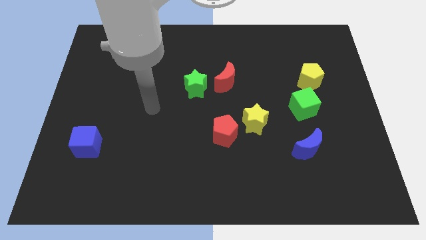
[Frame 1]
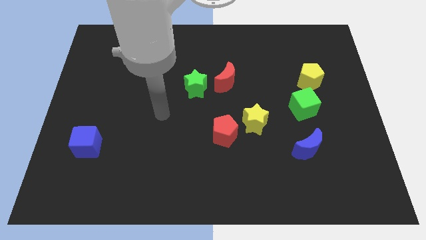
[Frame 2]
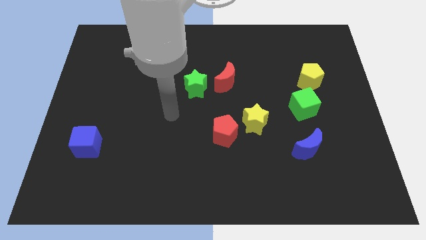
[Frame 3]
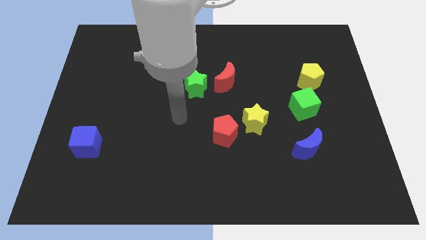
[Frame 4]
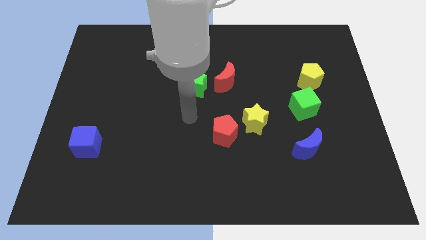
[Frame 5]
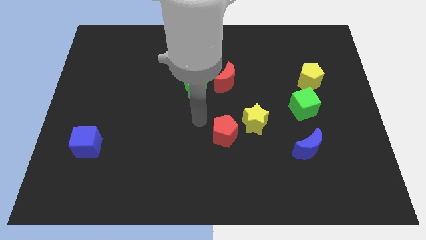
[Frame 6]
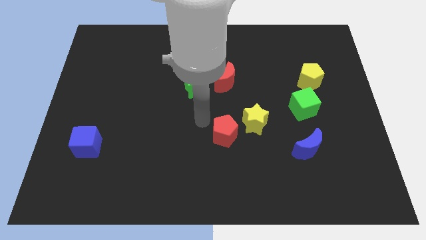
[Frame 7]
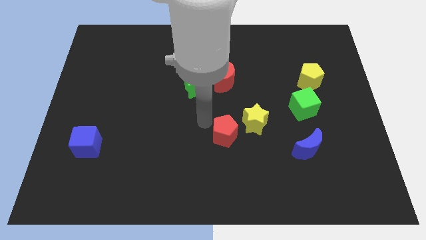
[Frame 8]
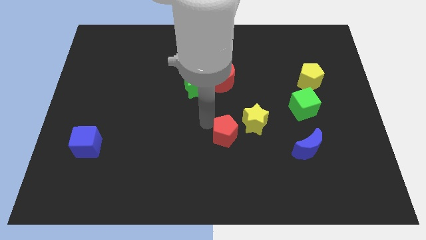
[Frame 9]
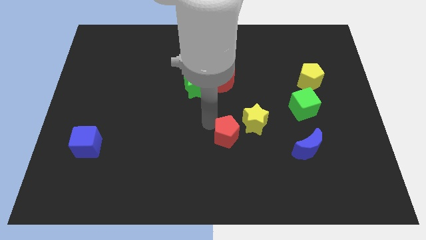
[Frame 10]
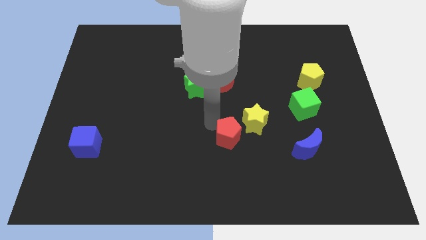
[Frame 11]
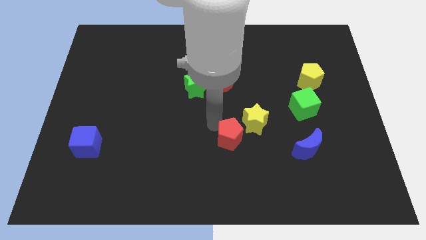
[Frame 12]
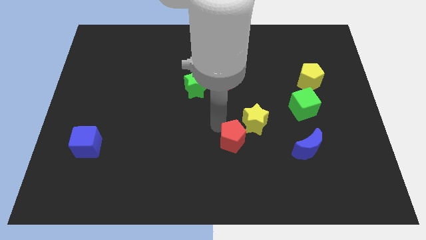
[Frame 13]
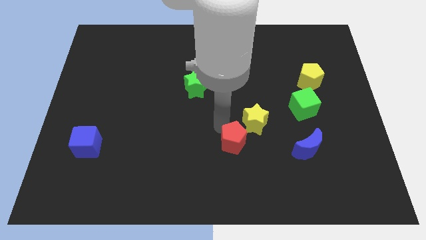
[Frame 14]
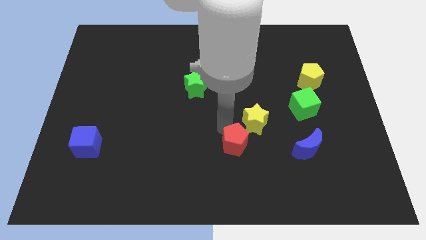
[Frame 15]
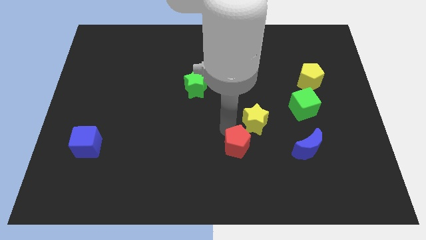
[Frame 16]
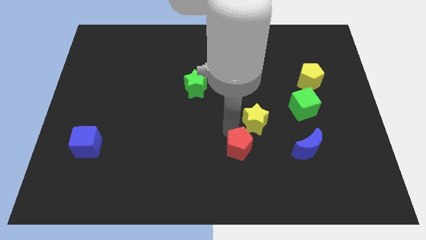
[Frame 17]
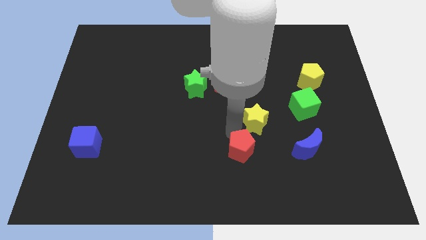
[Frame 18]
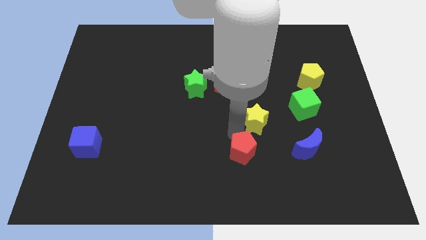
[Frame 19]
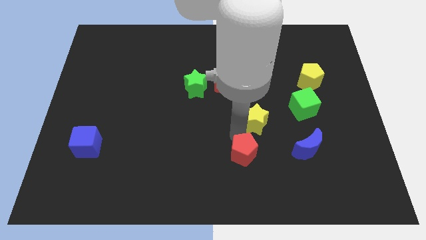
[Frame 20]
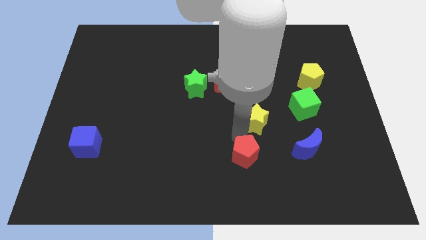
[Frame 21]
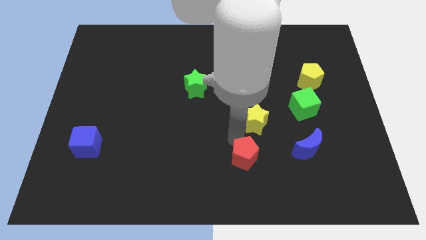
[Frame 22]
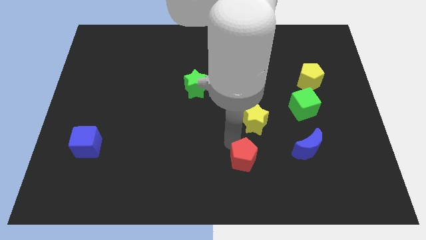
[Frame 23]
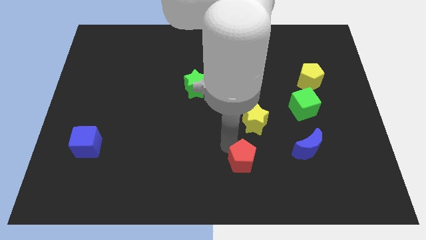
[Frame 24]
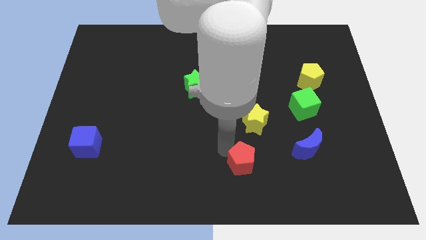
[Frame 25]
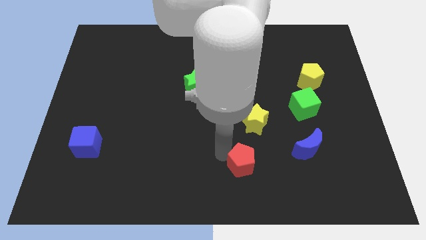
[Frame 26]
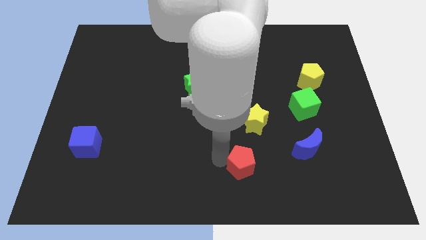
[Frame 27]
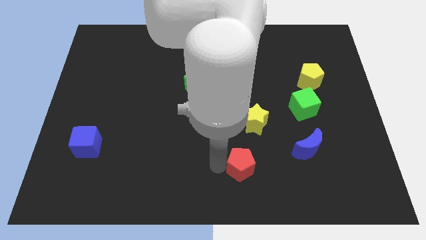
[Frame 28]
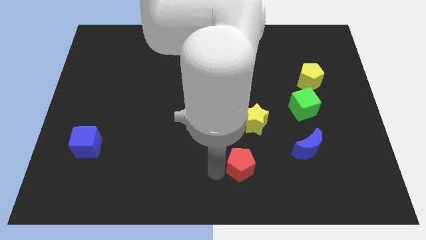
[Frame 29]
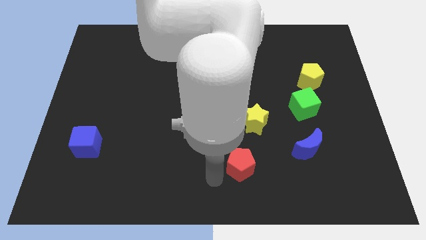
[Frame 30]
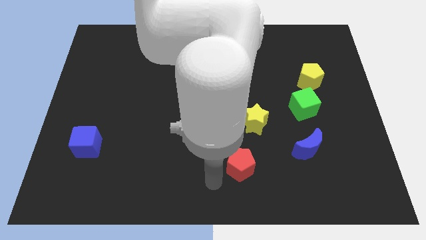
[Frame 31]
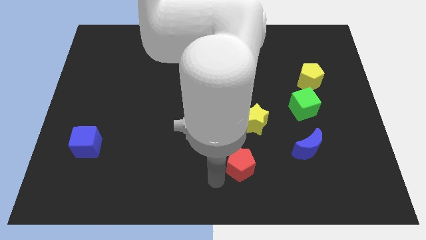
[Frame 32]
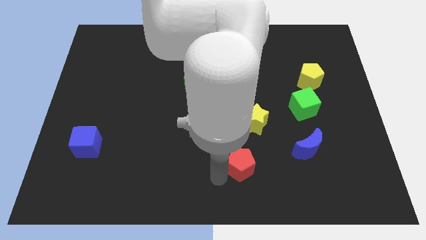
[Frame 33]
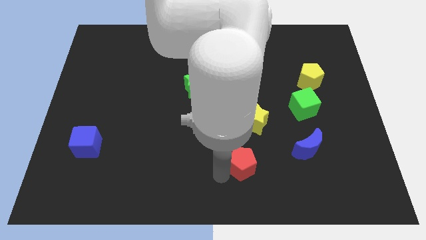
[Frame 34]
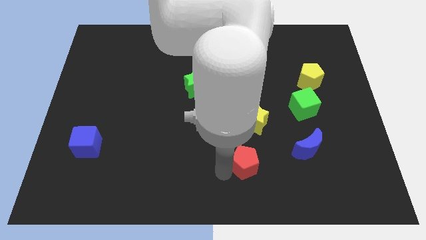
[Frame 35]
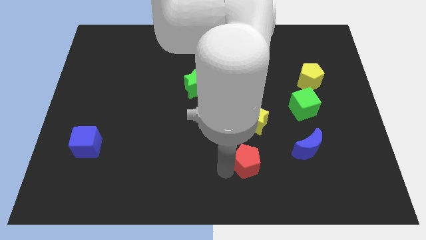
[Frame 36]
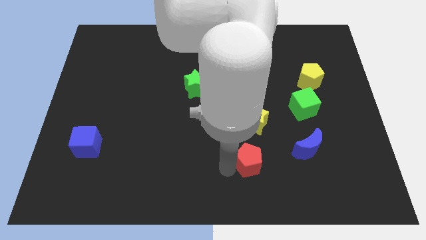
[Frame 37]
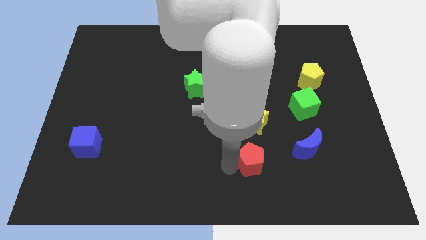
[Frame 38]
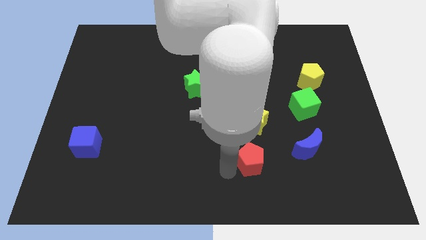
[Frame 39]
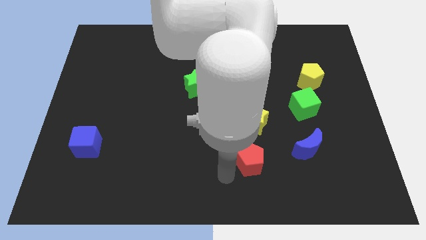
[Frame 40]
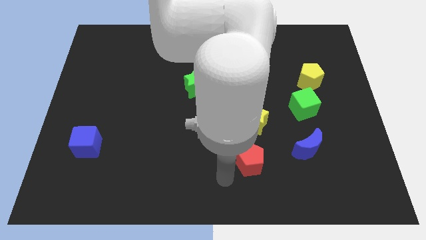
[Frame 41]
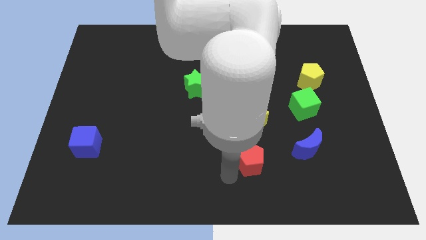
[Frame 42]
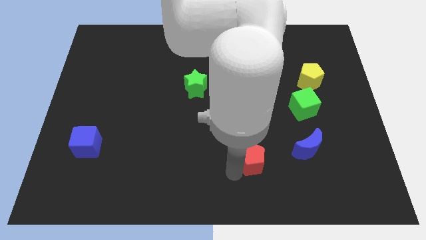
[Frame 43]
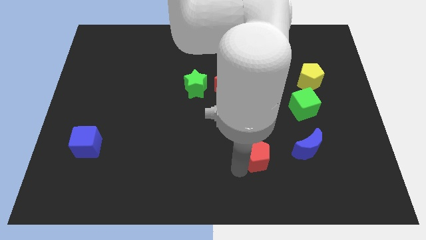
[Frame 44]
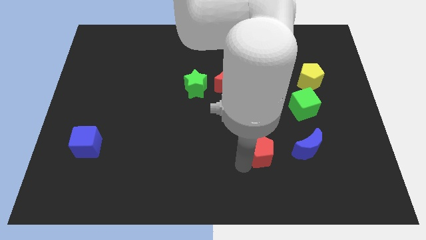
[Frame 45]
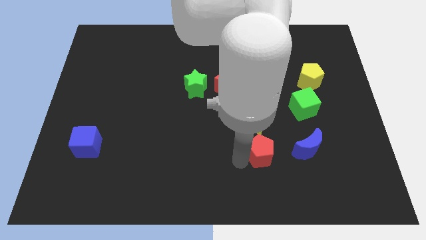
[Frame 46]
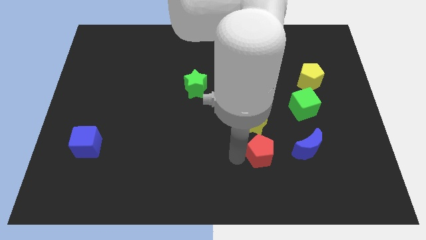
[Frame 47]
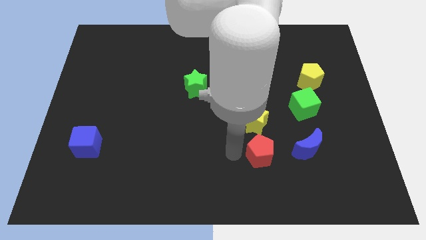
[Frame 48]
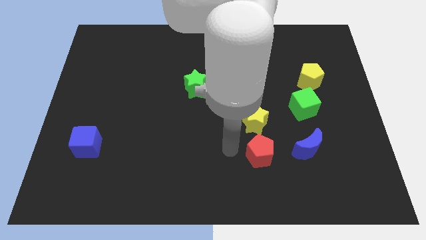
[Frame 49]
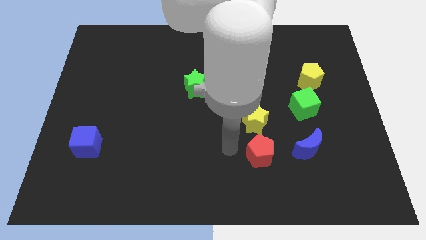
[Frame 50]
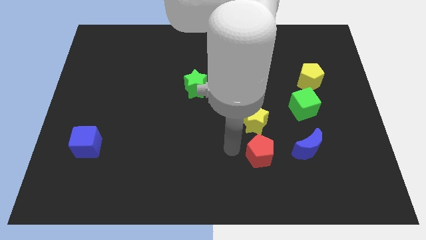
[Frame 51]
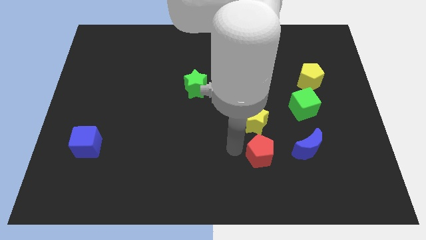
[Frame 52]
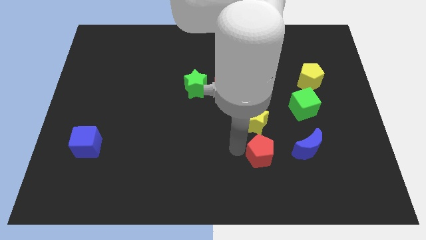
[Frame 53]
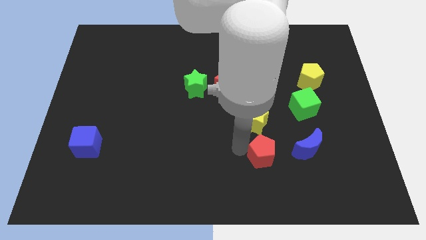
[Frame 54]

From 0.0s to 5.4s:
move the red pentagon right a little bit

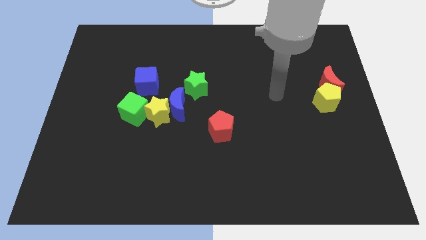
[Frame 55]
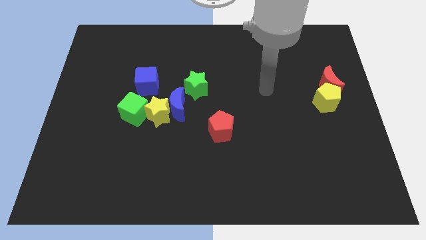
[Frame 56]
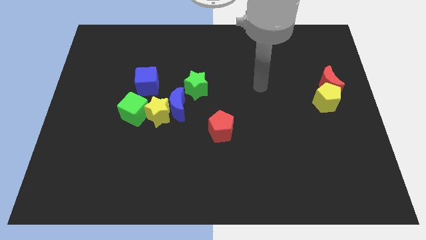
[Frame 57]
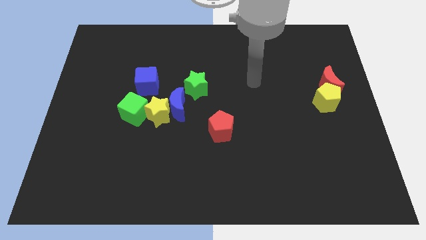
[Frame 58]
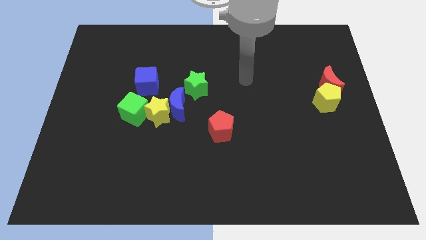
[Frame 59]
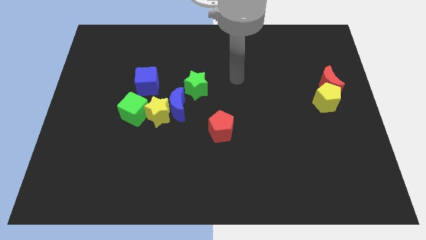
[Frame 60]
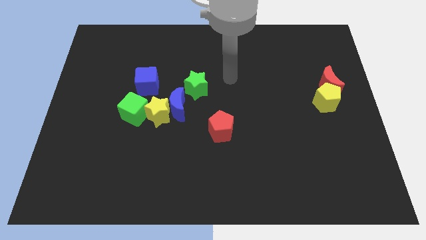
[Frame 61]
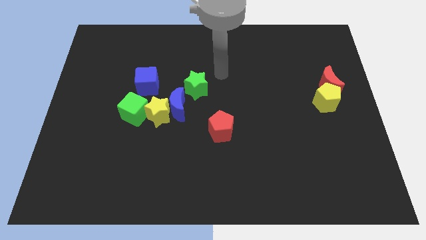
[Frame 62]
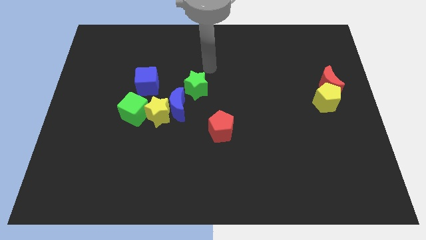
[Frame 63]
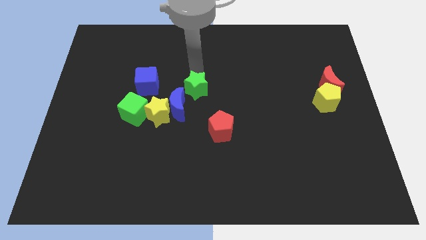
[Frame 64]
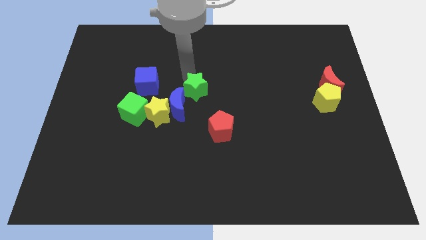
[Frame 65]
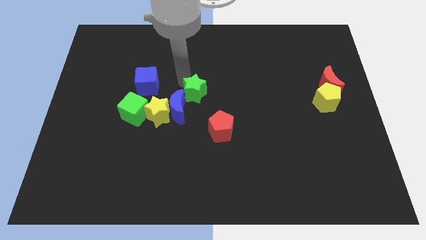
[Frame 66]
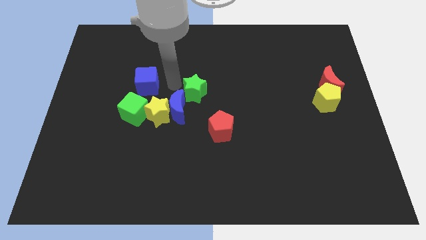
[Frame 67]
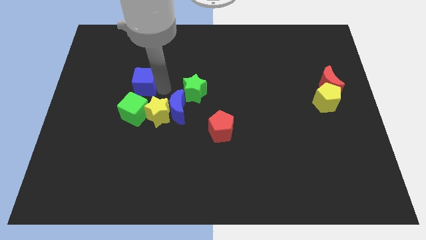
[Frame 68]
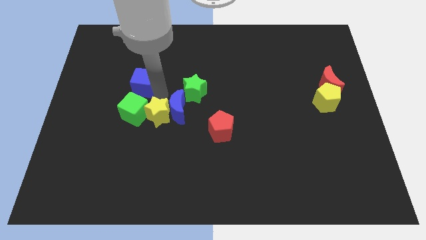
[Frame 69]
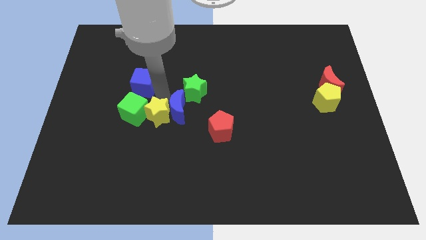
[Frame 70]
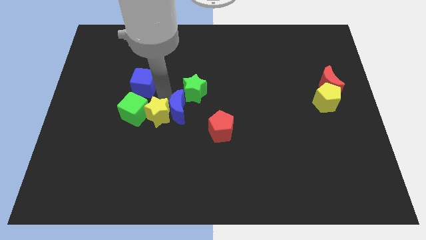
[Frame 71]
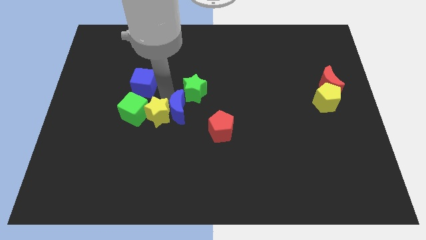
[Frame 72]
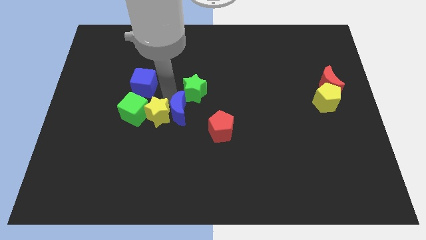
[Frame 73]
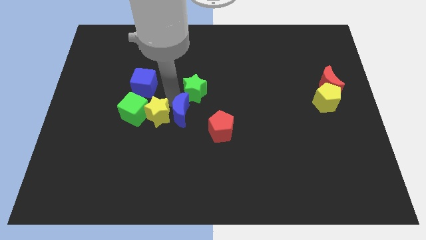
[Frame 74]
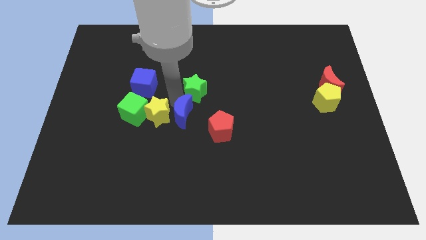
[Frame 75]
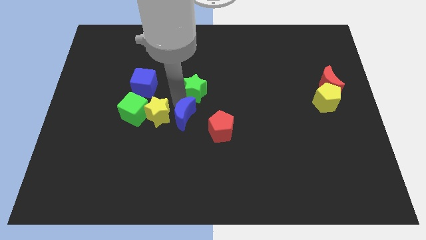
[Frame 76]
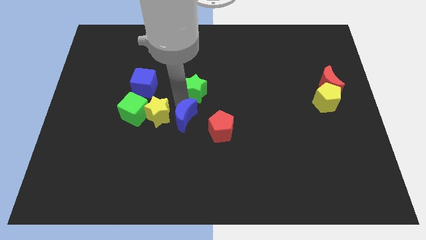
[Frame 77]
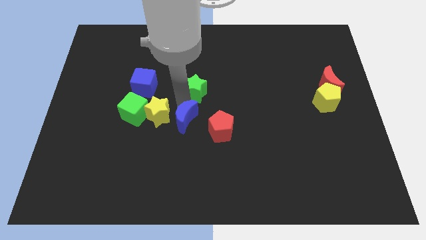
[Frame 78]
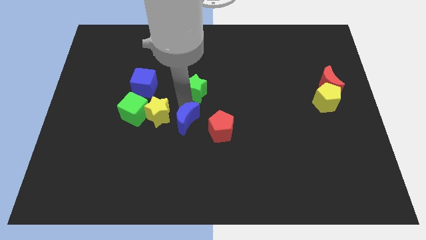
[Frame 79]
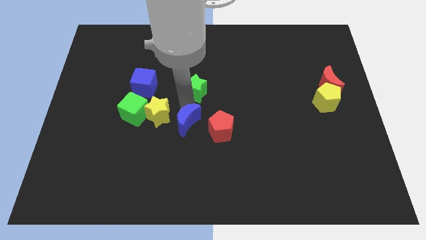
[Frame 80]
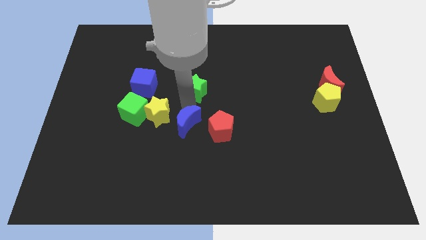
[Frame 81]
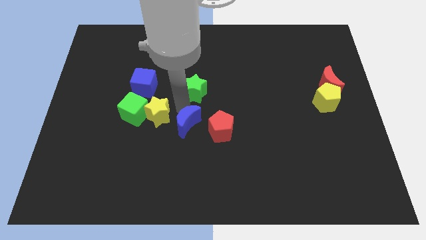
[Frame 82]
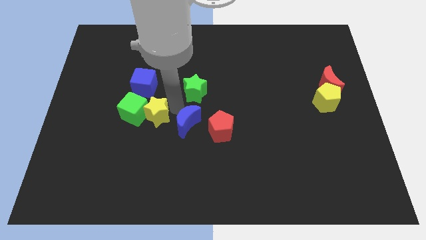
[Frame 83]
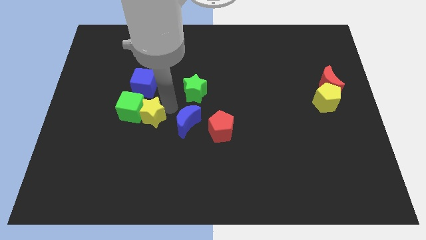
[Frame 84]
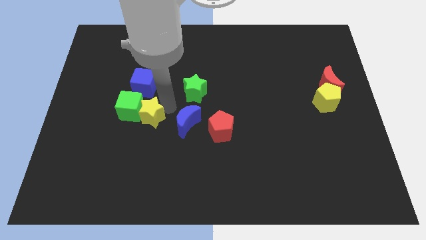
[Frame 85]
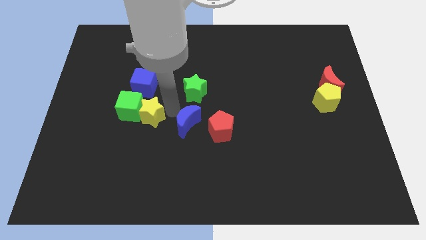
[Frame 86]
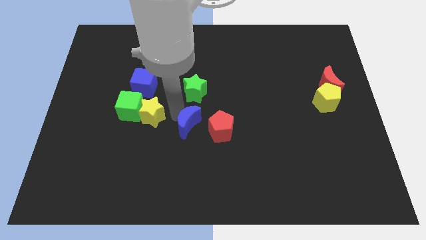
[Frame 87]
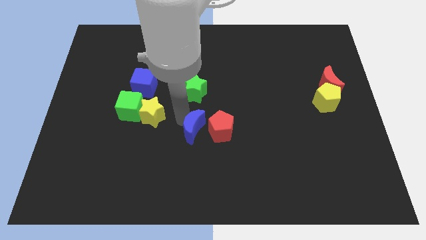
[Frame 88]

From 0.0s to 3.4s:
move the blue moon diagonally down and to the right somewhat
